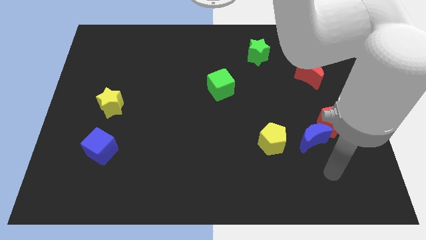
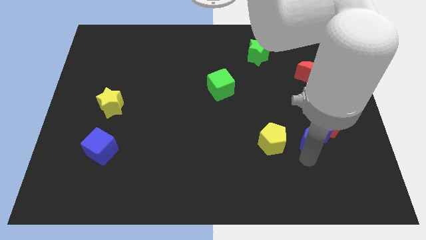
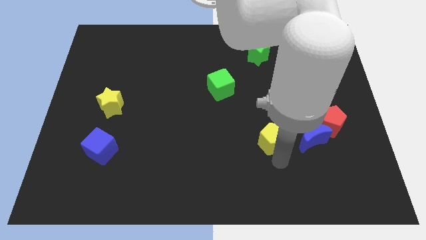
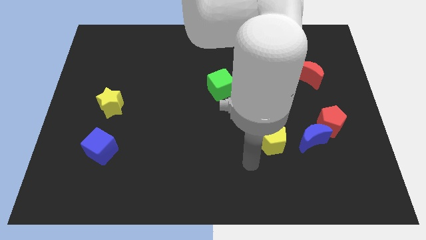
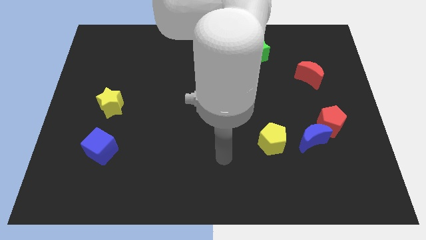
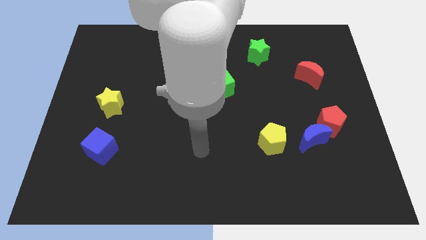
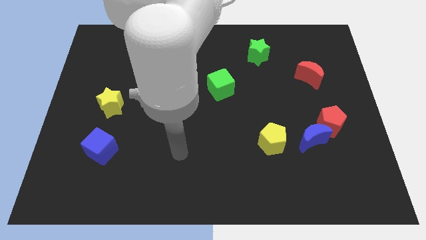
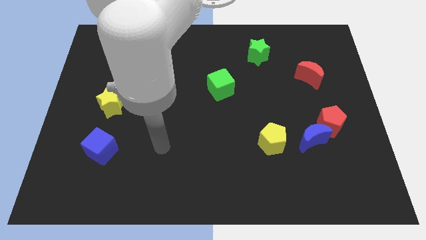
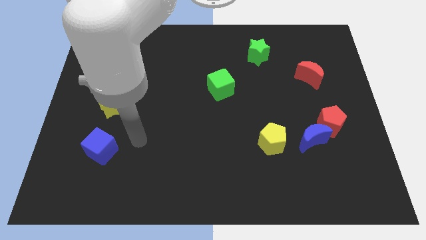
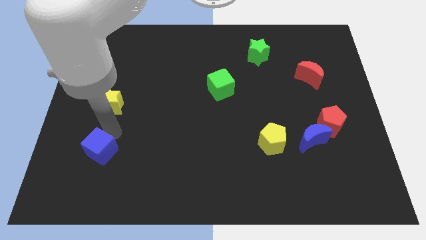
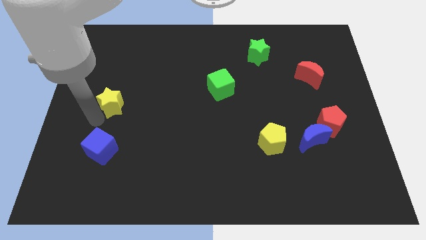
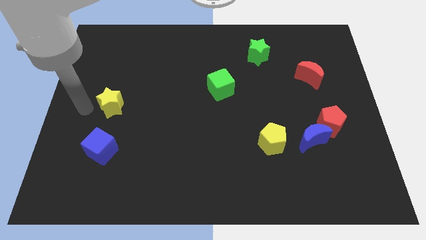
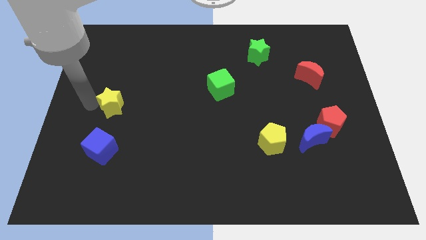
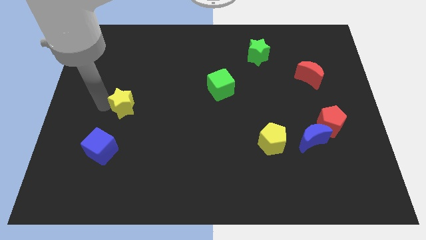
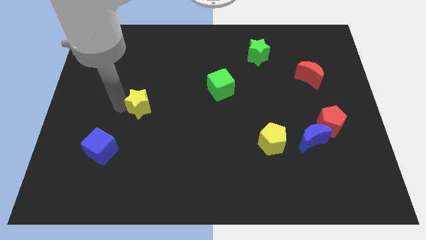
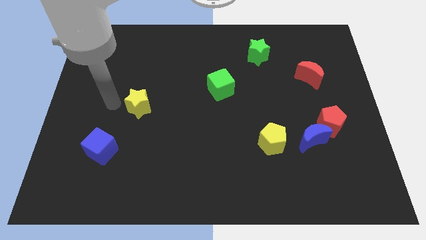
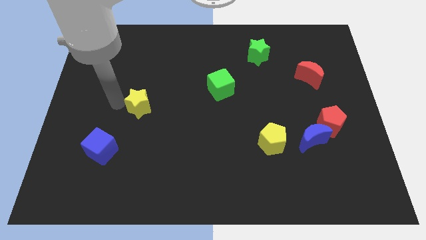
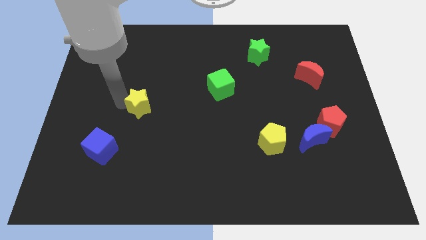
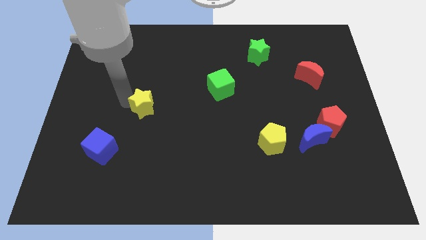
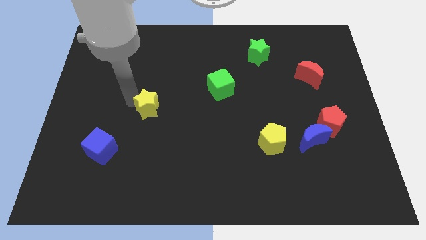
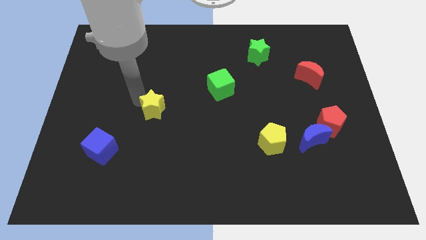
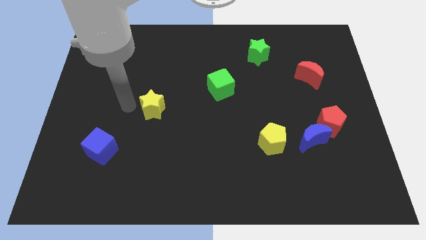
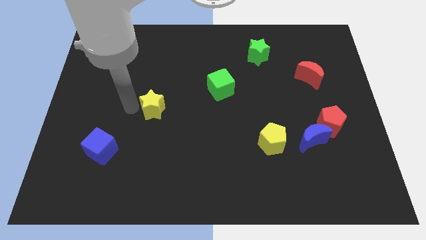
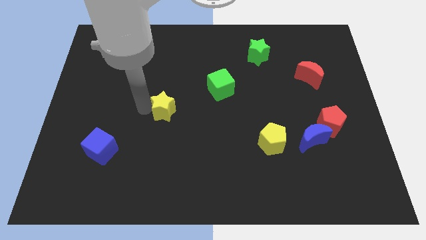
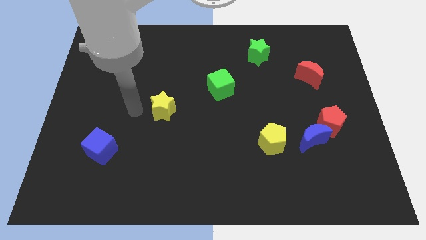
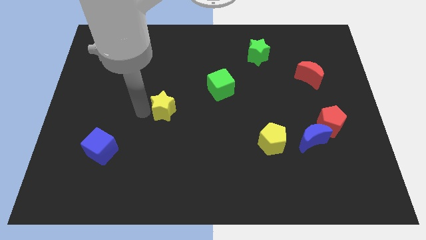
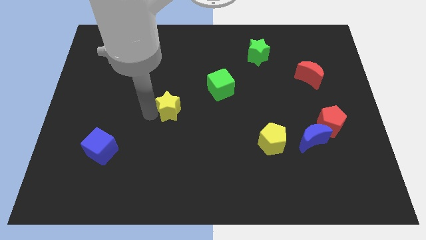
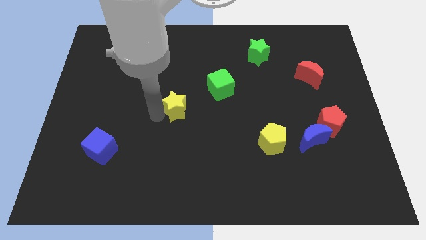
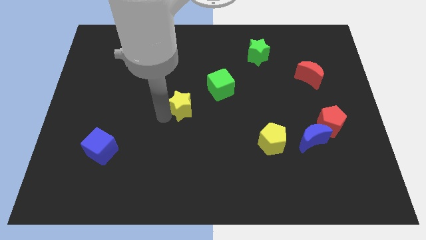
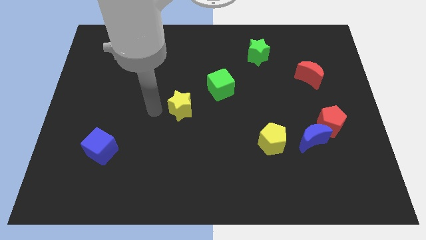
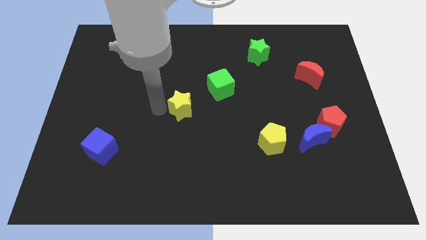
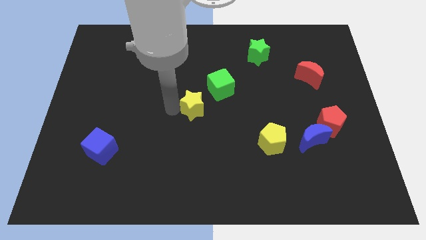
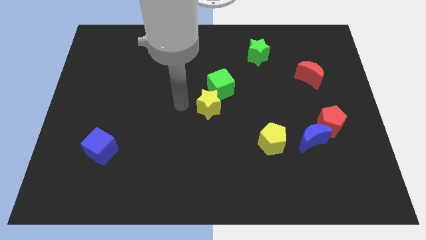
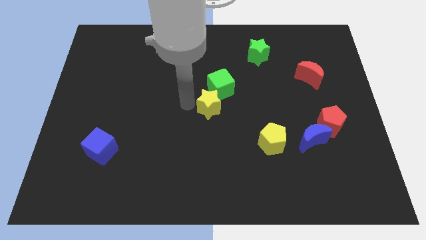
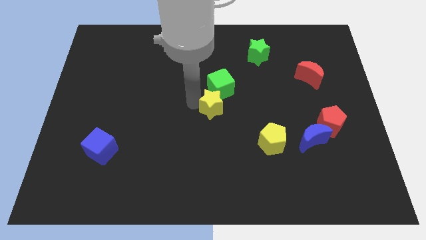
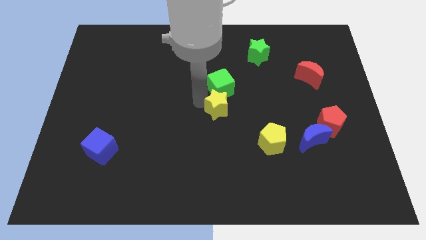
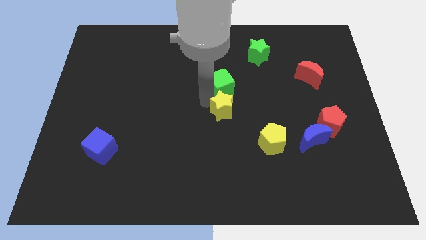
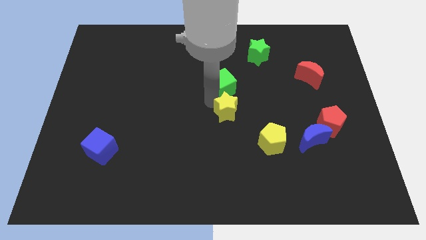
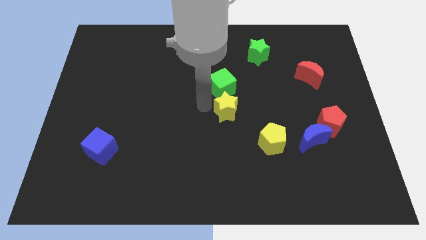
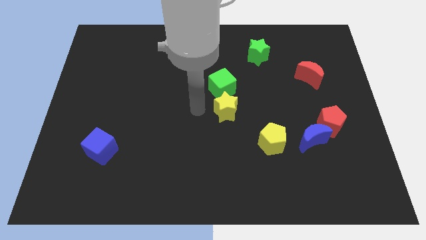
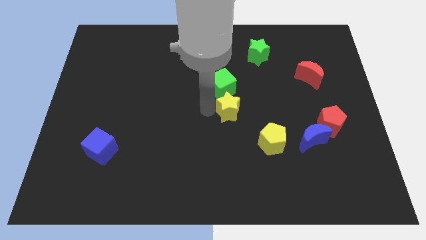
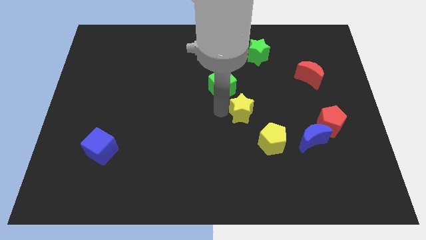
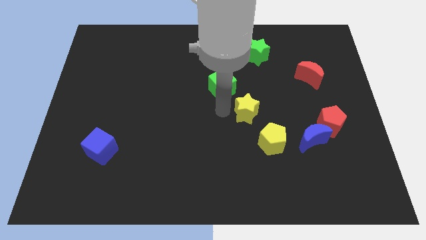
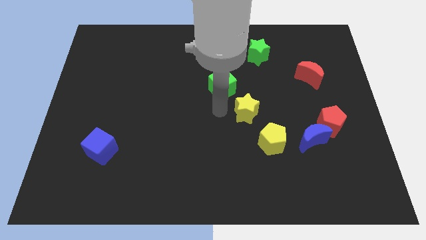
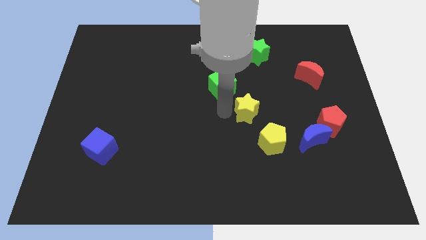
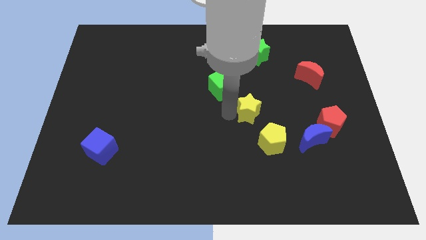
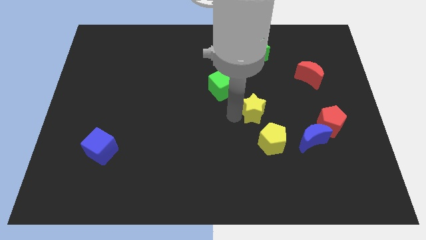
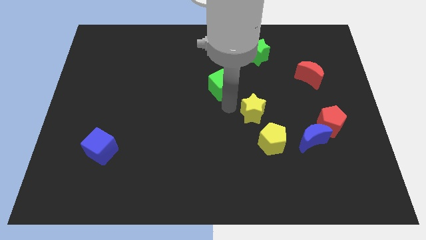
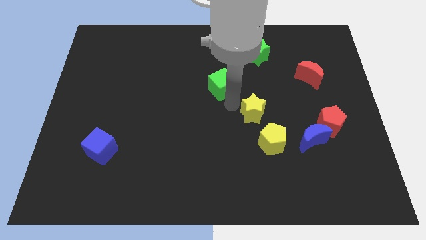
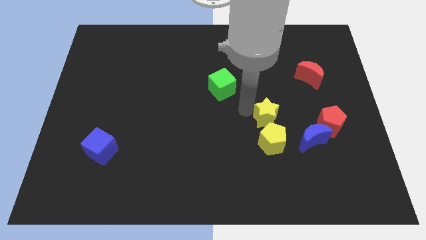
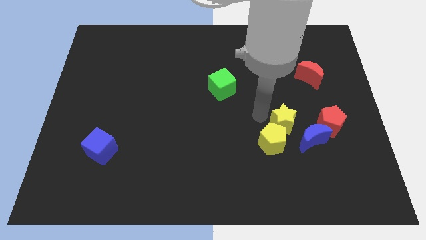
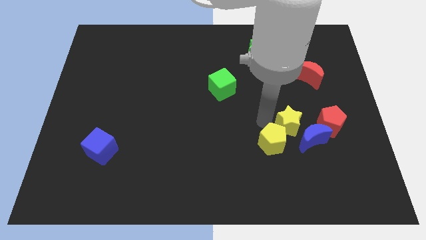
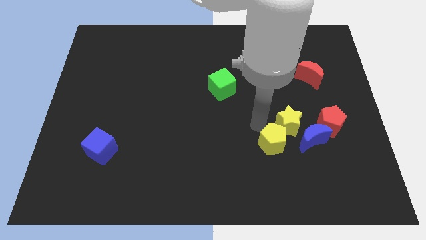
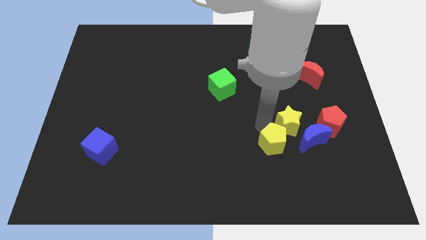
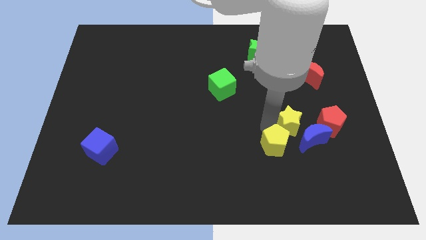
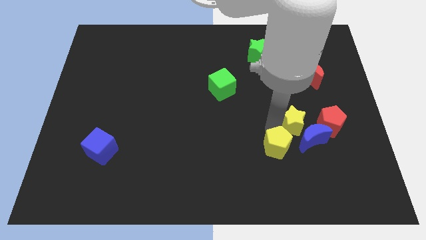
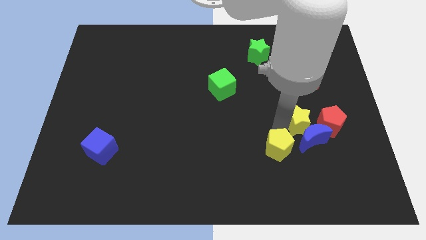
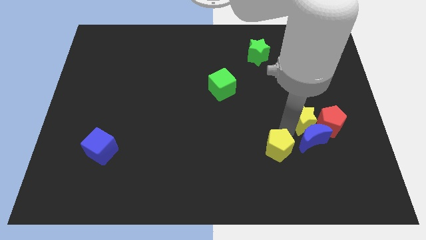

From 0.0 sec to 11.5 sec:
push the yellow star close to the red pentagon
